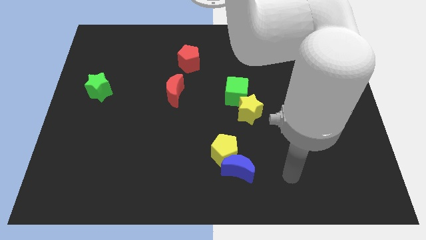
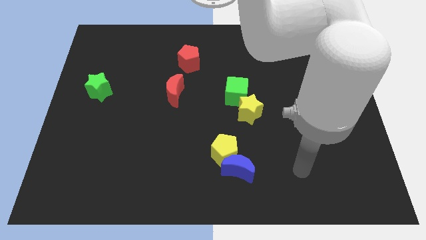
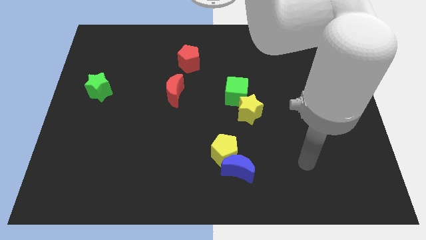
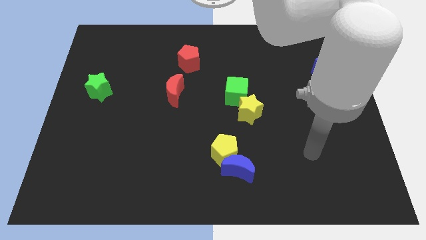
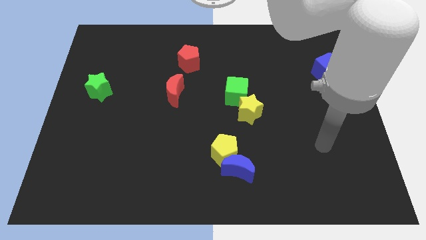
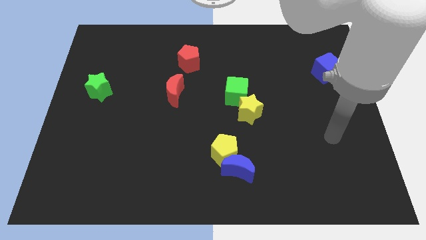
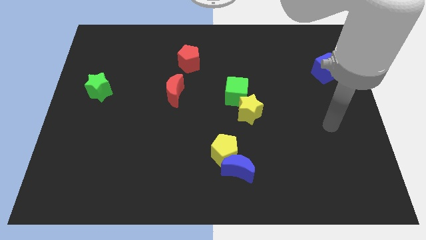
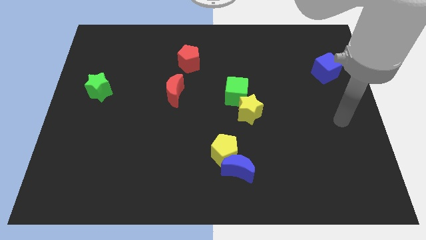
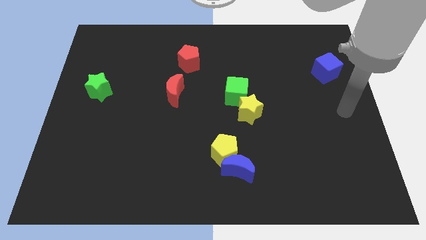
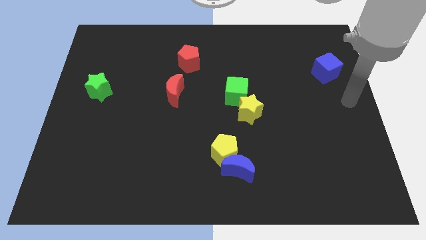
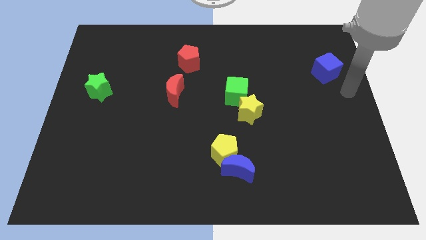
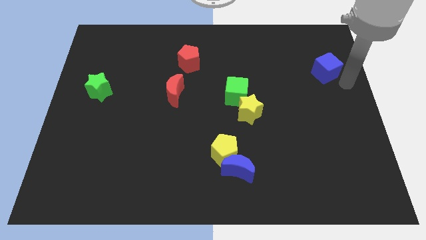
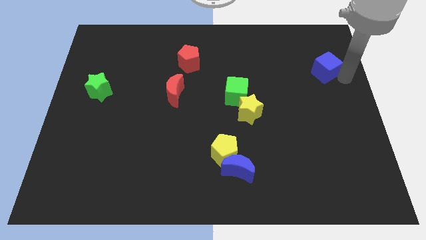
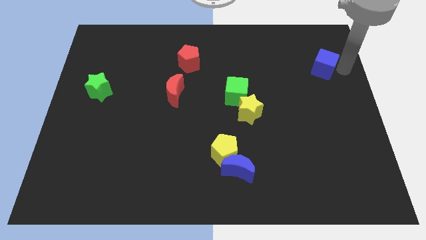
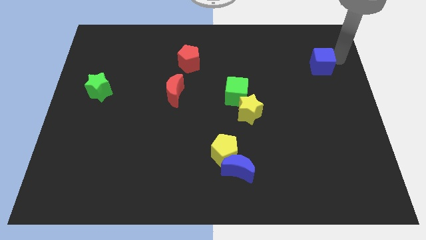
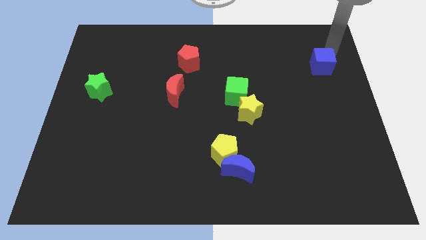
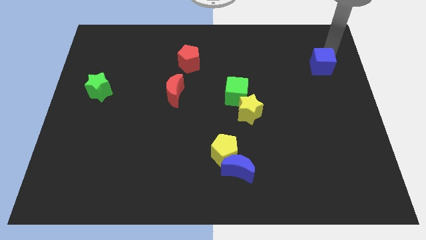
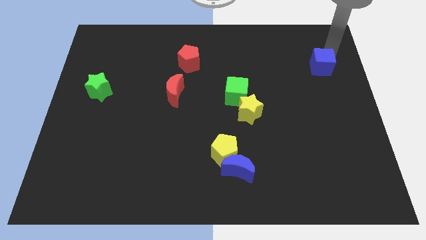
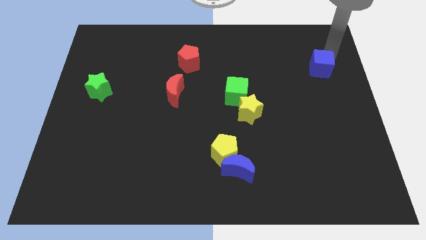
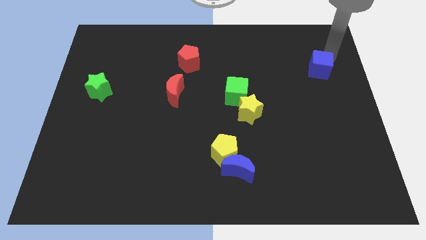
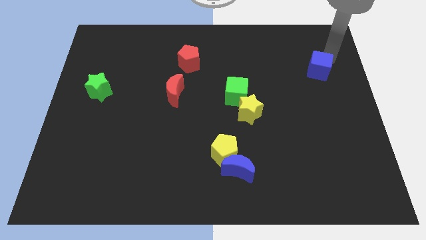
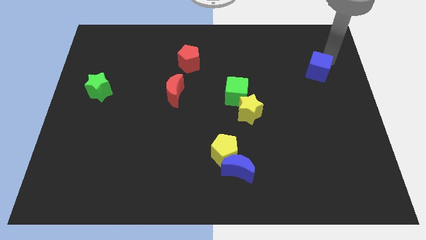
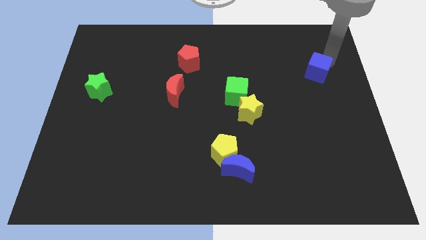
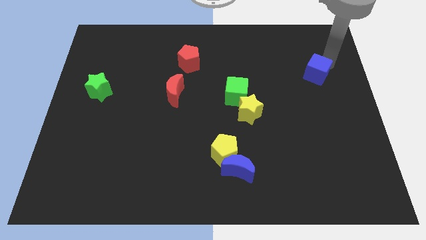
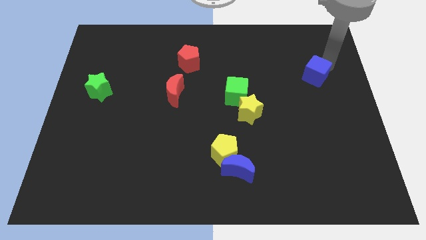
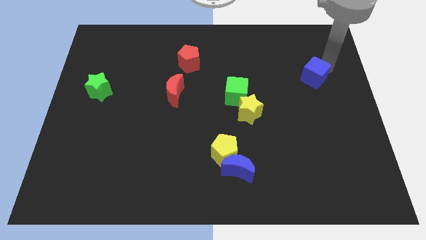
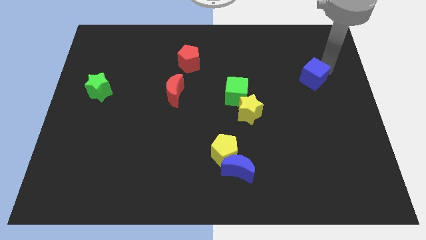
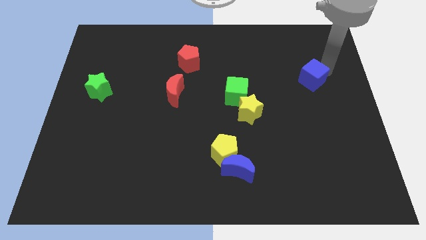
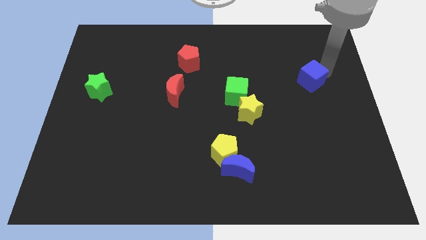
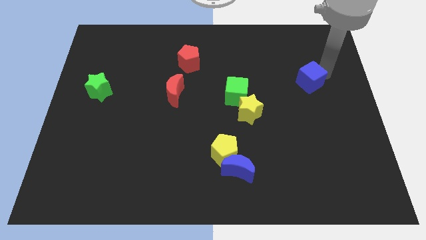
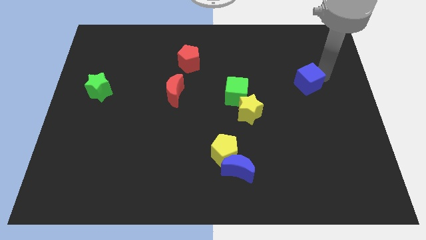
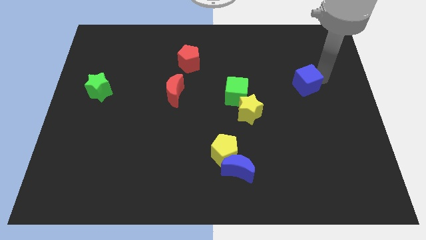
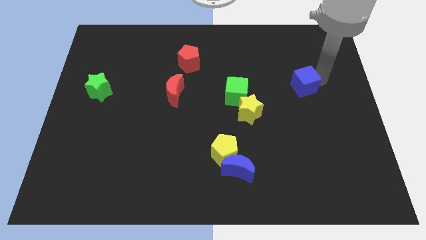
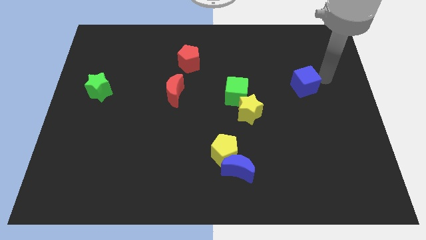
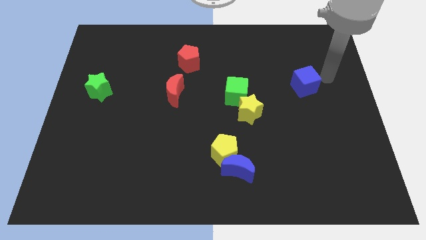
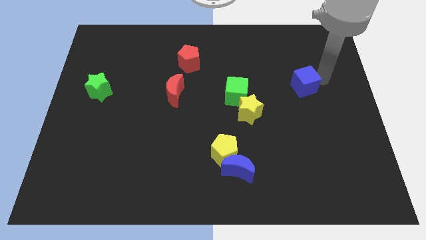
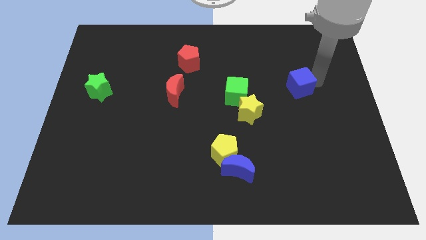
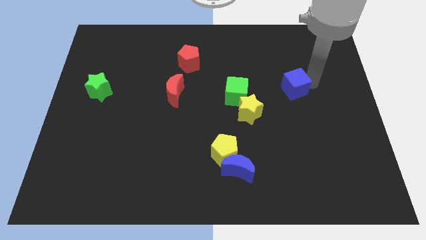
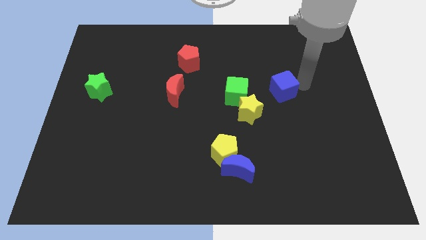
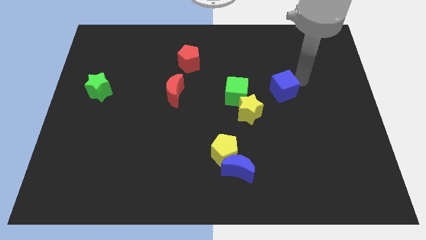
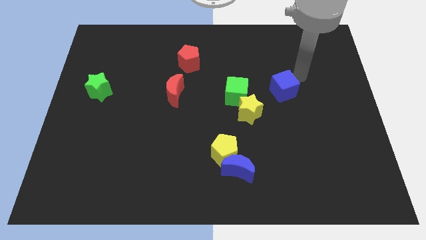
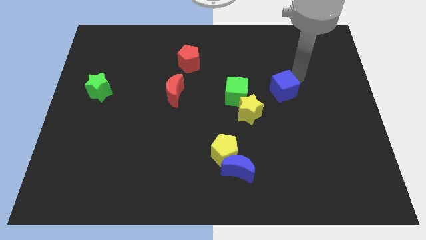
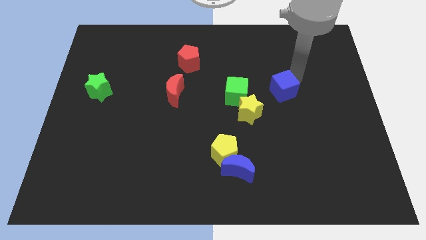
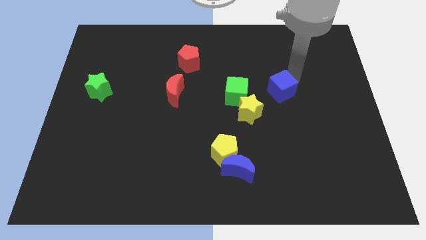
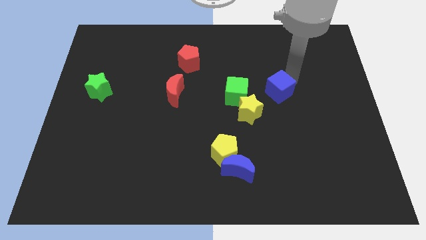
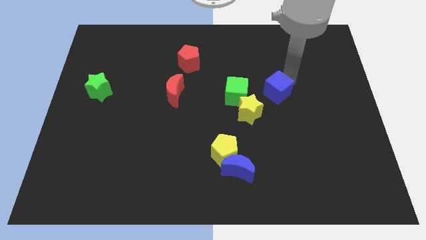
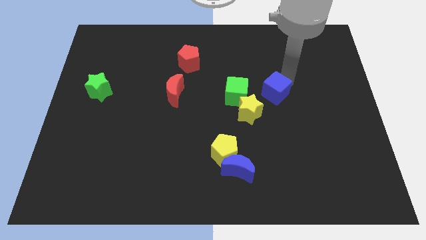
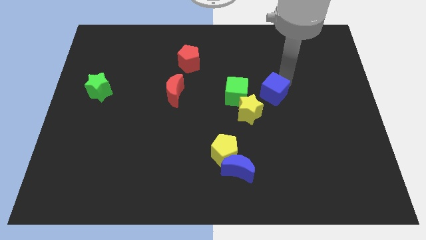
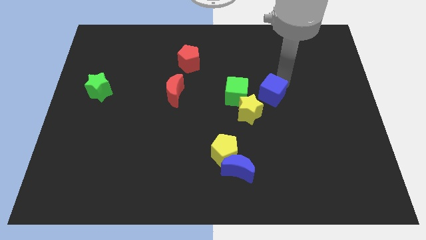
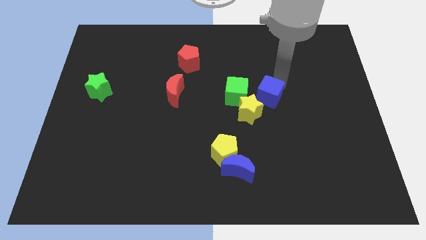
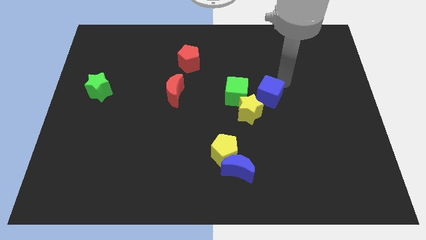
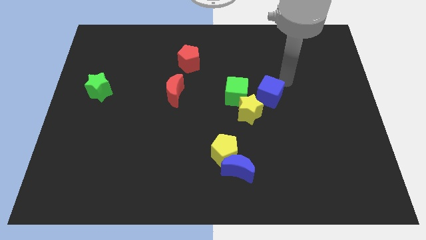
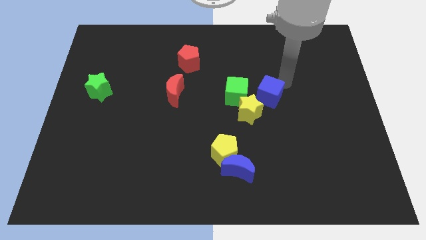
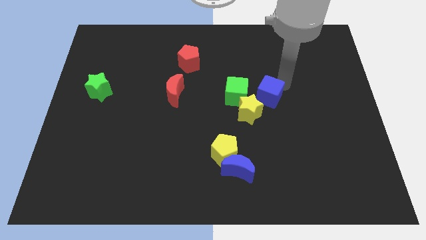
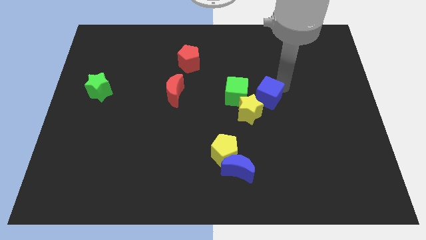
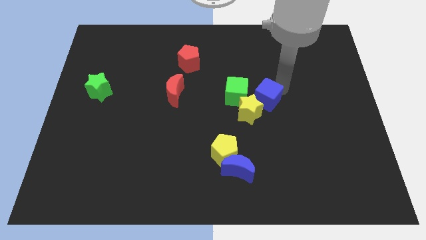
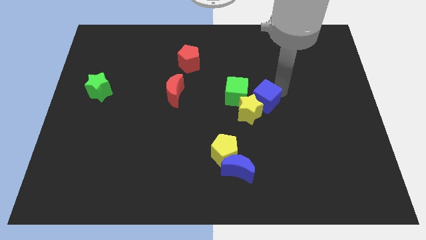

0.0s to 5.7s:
slide the blue cube to the yellow star

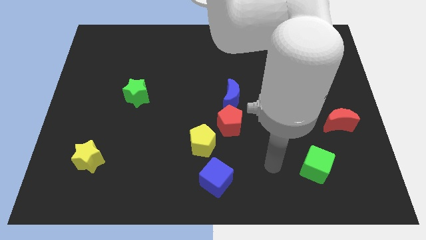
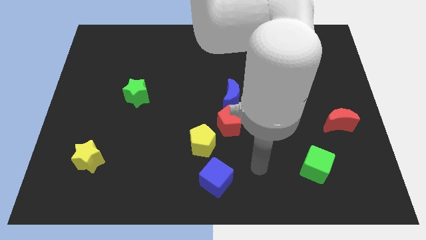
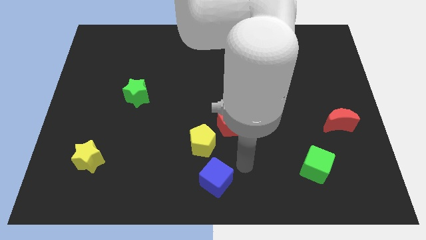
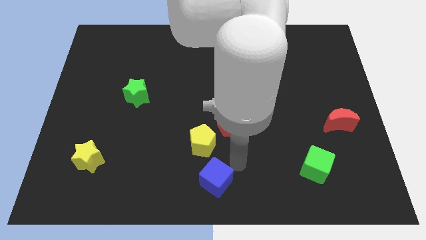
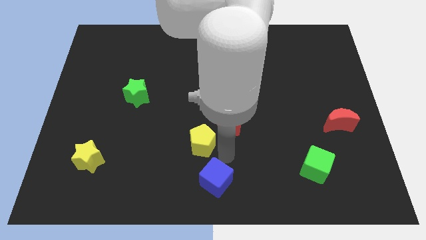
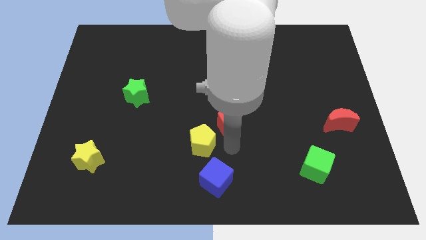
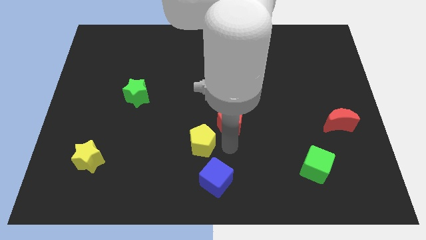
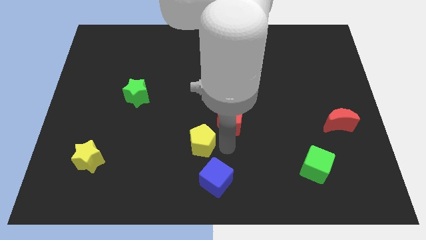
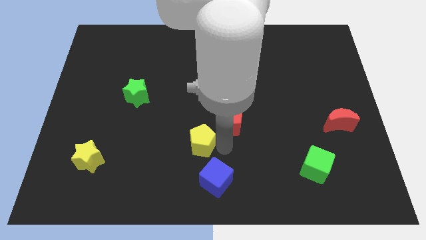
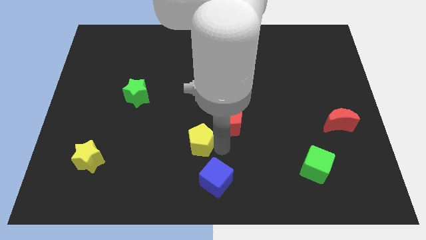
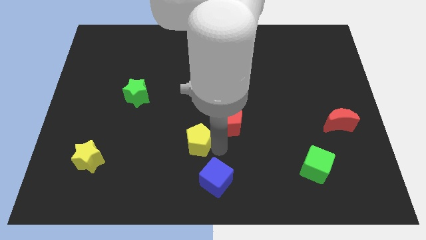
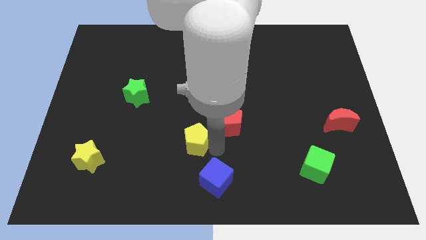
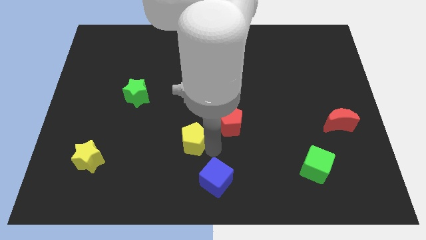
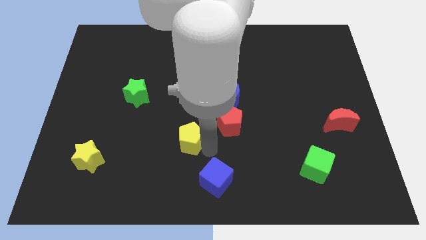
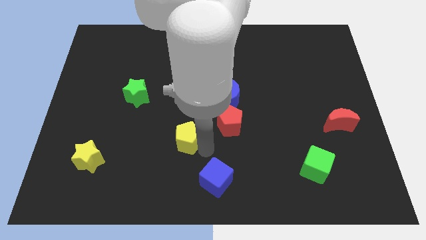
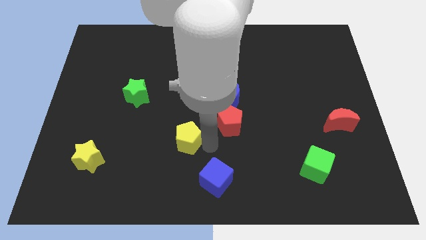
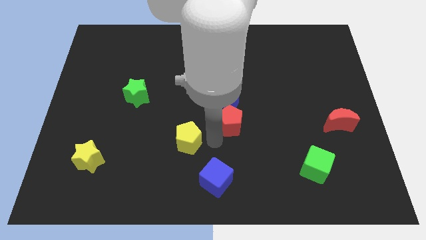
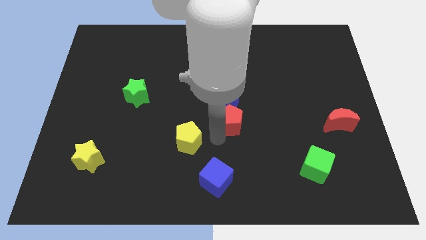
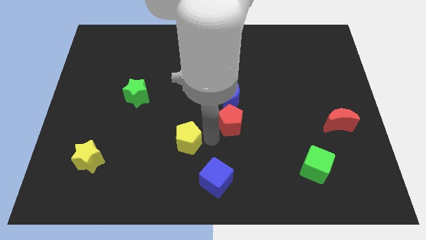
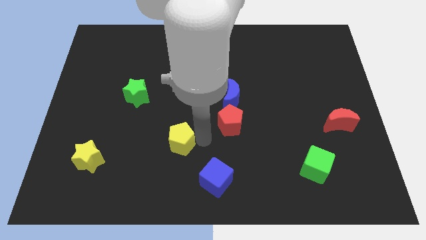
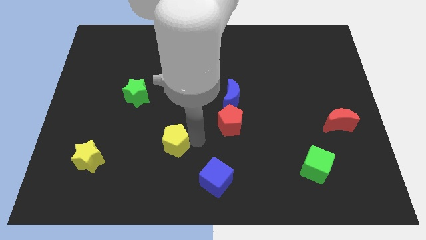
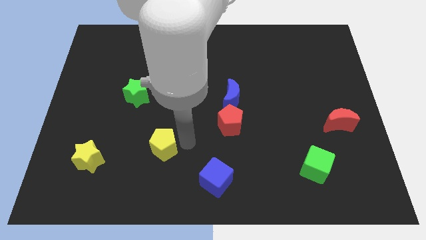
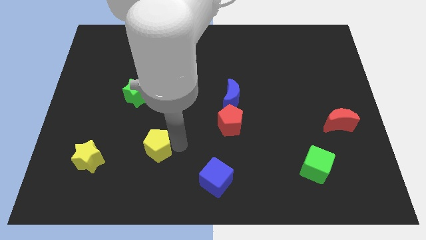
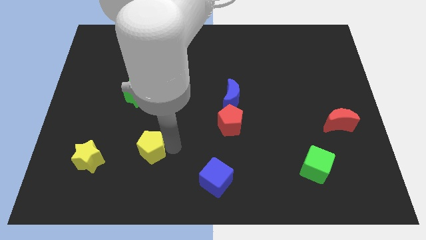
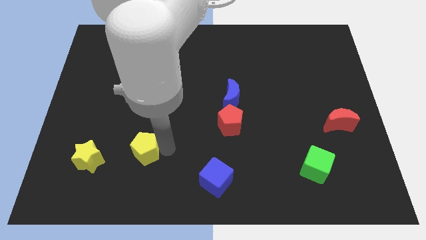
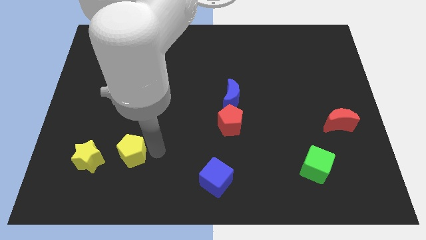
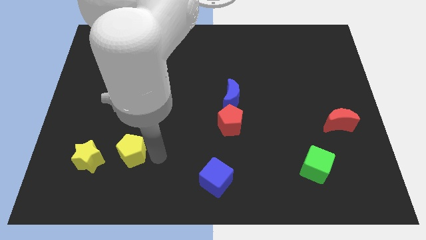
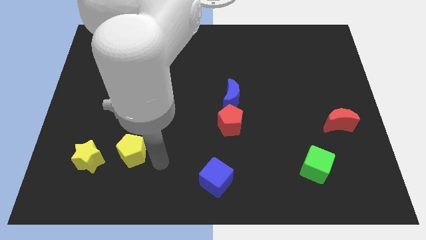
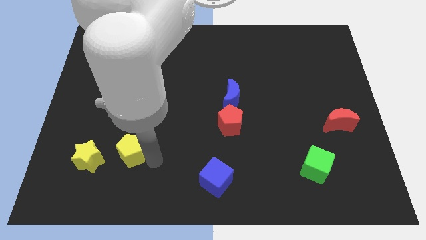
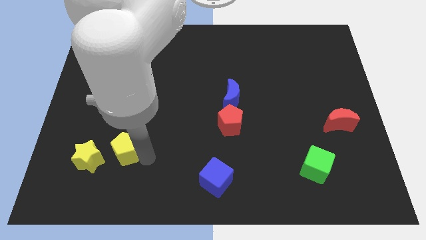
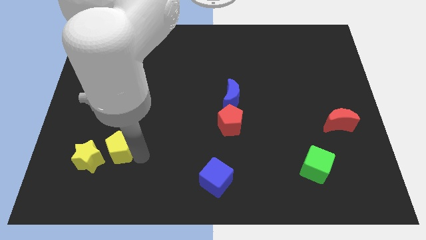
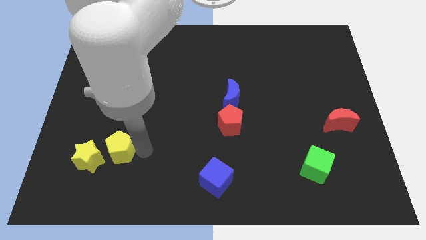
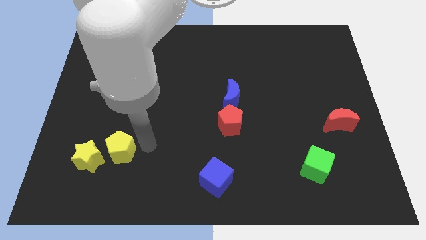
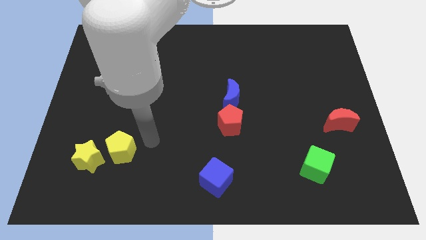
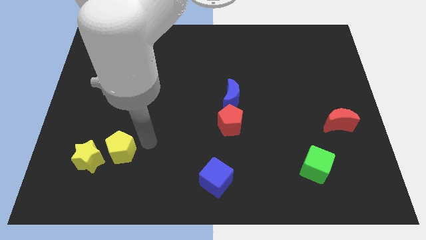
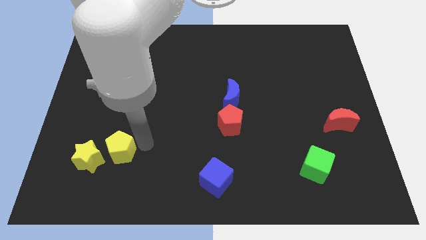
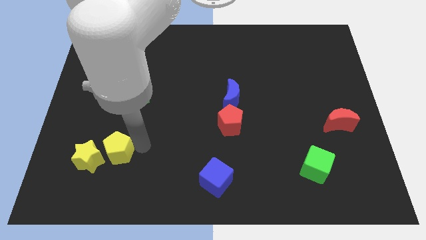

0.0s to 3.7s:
move the yellow pentagon close to the yellow star
